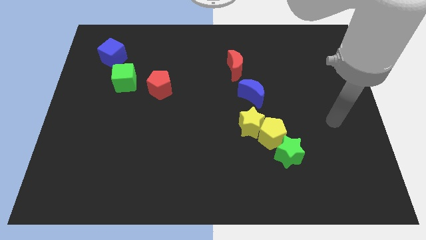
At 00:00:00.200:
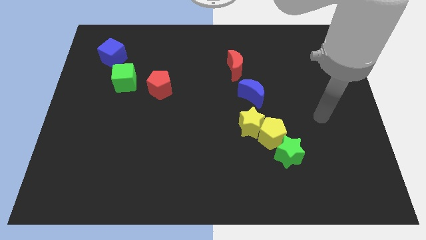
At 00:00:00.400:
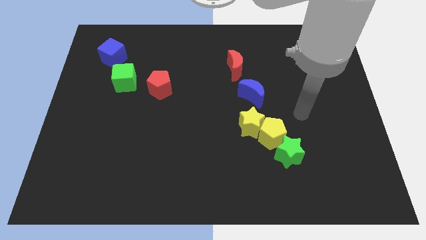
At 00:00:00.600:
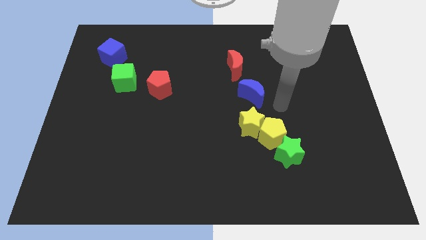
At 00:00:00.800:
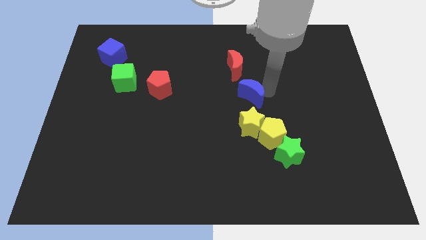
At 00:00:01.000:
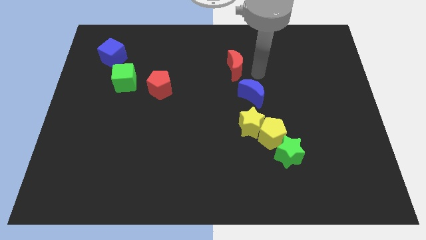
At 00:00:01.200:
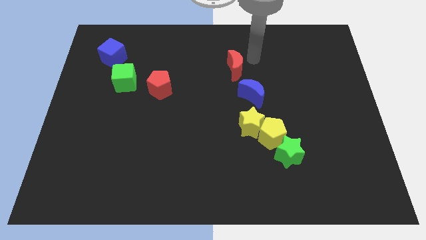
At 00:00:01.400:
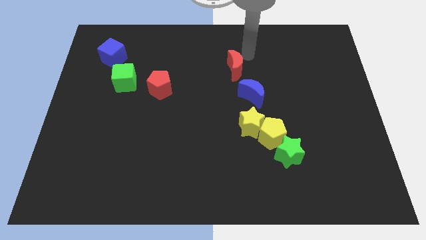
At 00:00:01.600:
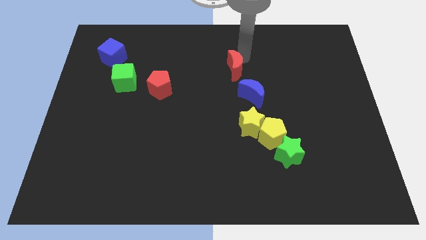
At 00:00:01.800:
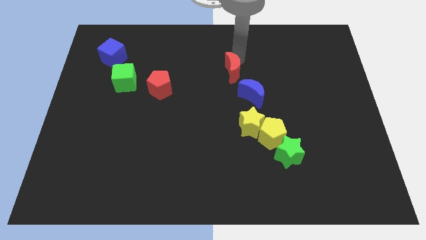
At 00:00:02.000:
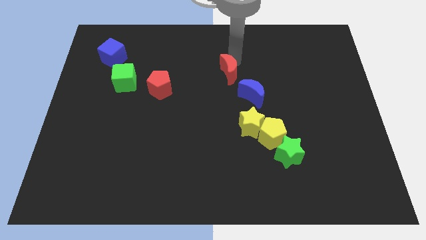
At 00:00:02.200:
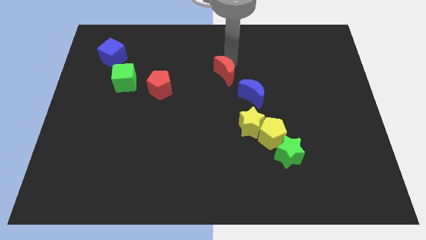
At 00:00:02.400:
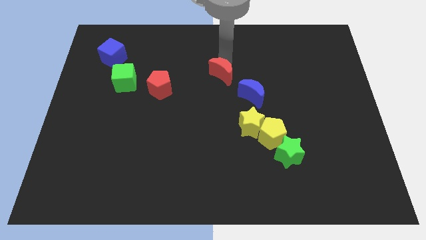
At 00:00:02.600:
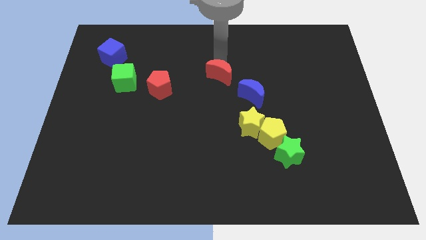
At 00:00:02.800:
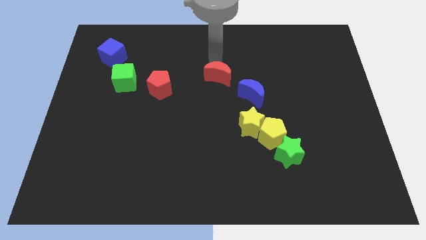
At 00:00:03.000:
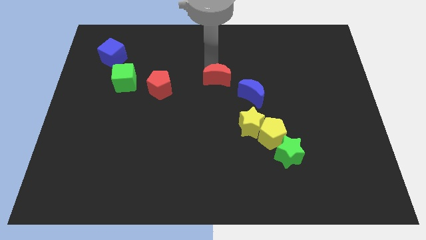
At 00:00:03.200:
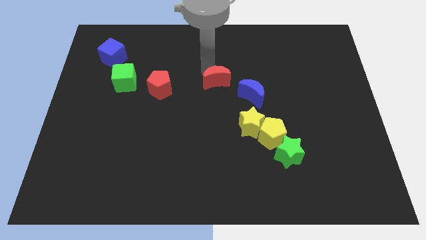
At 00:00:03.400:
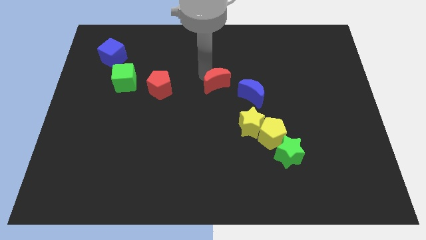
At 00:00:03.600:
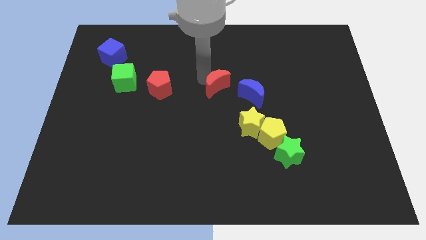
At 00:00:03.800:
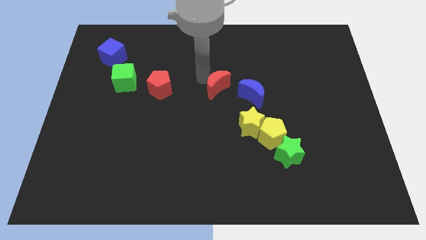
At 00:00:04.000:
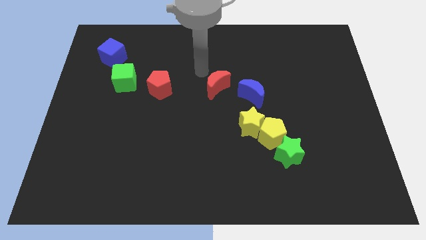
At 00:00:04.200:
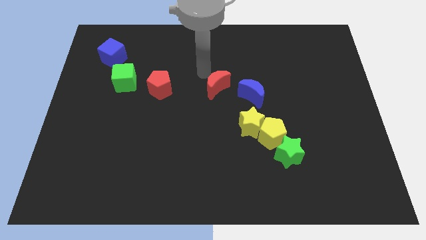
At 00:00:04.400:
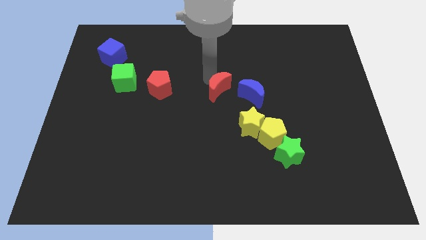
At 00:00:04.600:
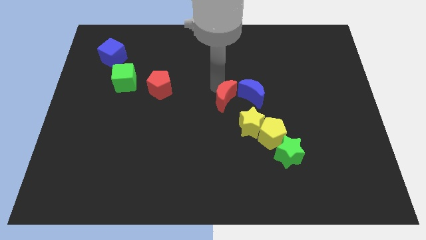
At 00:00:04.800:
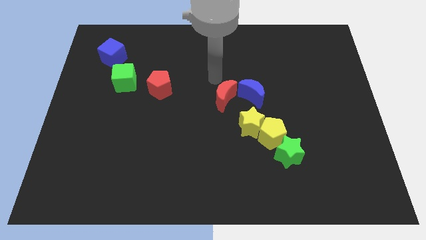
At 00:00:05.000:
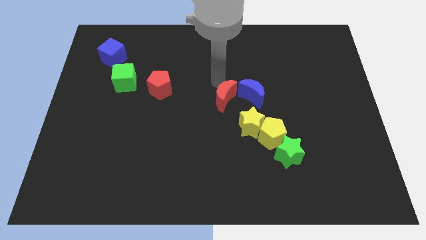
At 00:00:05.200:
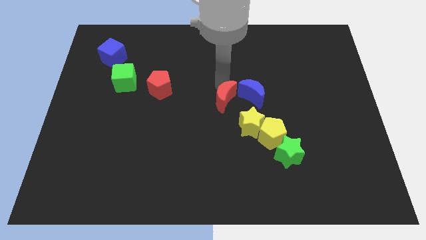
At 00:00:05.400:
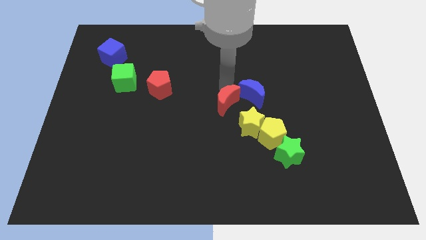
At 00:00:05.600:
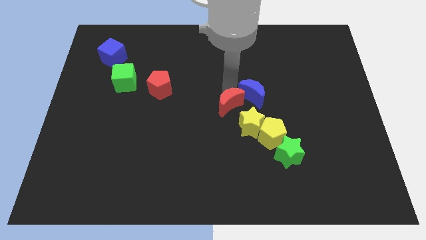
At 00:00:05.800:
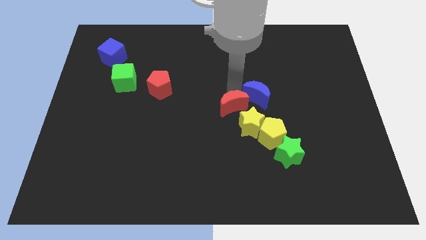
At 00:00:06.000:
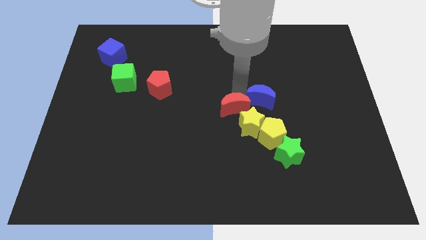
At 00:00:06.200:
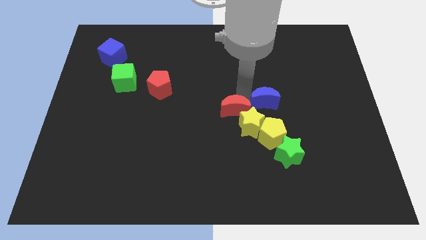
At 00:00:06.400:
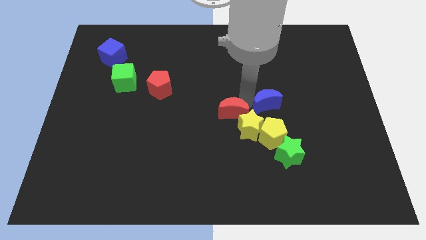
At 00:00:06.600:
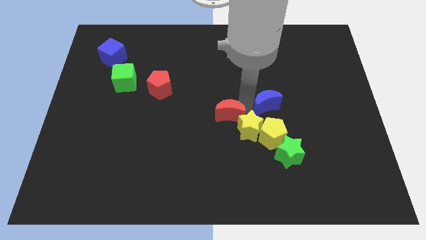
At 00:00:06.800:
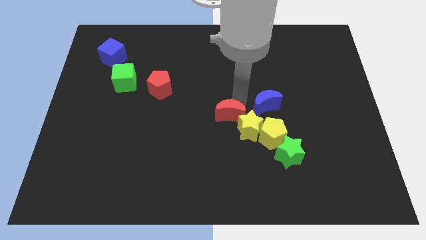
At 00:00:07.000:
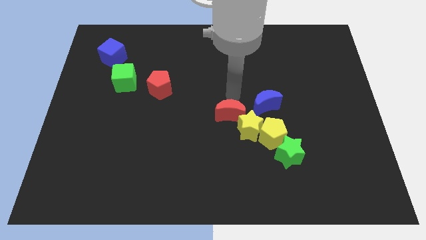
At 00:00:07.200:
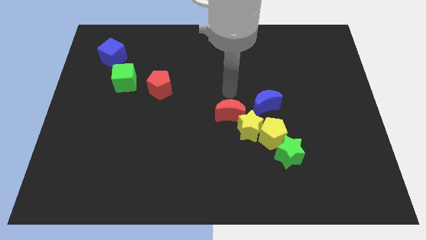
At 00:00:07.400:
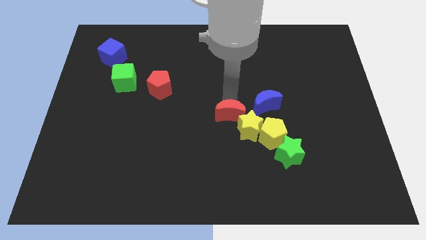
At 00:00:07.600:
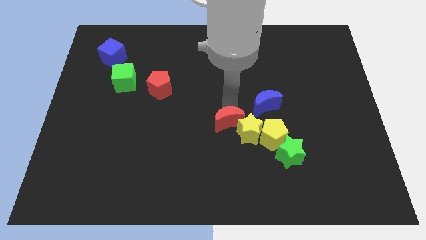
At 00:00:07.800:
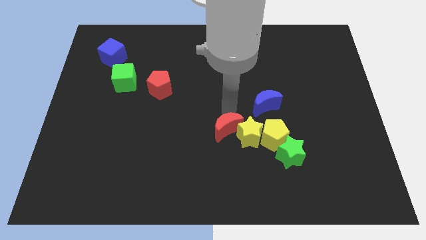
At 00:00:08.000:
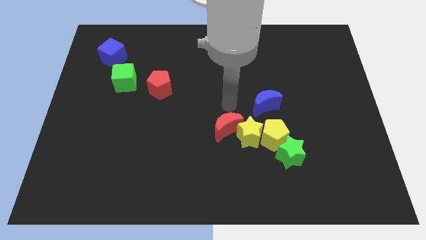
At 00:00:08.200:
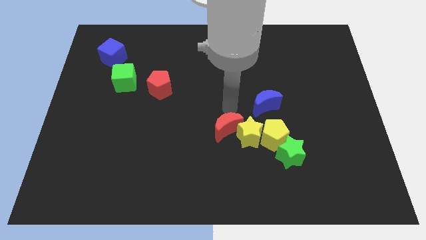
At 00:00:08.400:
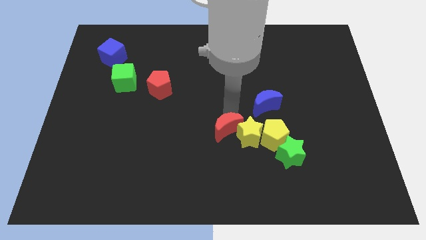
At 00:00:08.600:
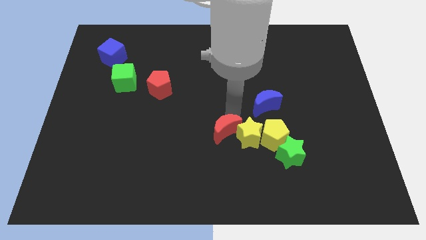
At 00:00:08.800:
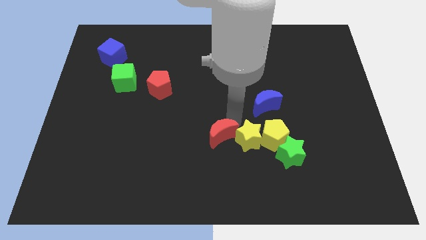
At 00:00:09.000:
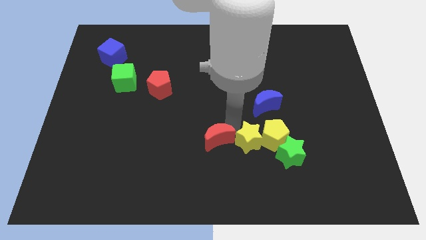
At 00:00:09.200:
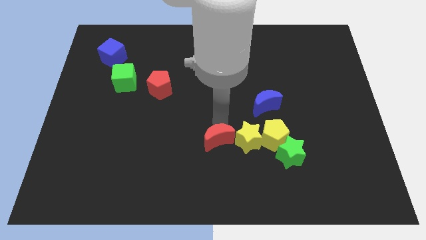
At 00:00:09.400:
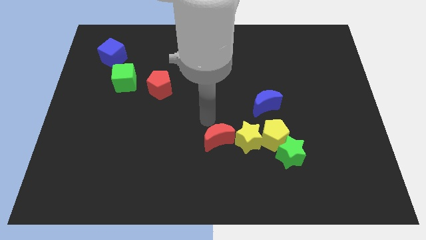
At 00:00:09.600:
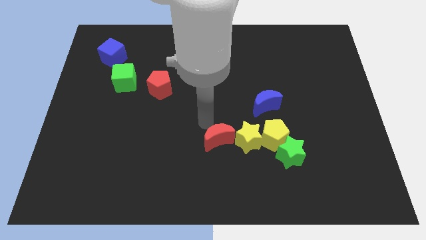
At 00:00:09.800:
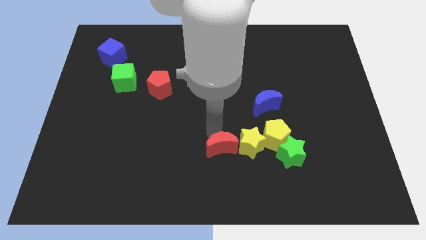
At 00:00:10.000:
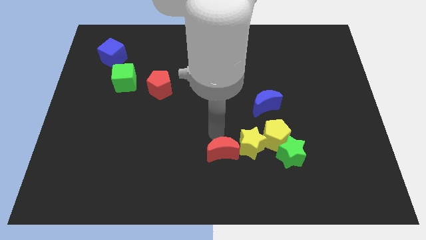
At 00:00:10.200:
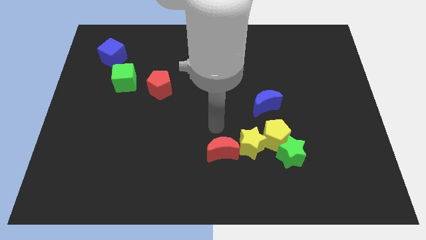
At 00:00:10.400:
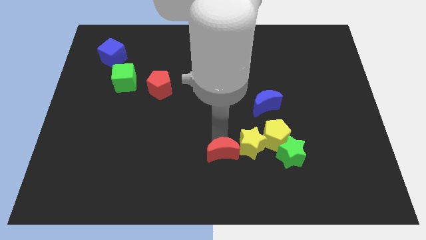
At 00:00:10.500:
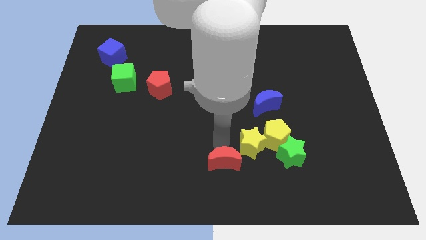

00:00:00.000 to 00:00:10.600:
slide the red moon to the bottom side
